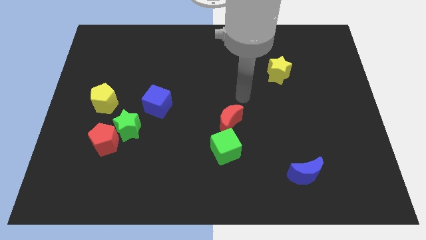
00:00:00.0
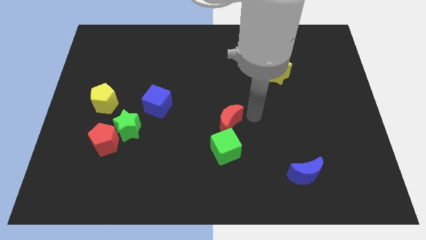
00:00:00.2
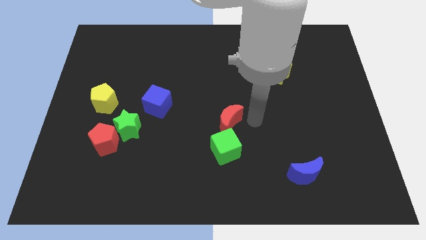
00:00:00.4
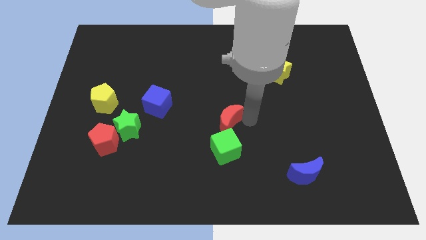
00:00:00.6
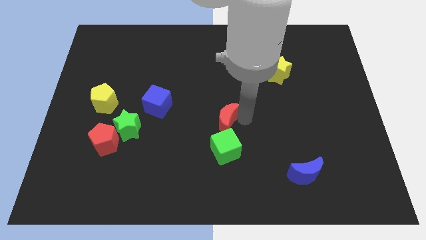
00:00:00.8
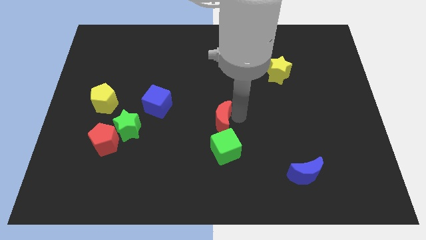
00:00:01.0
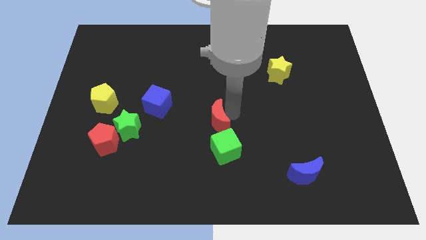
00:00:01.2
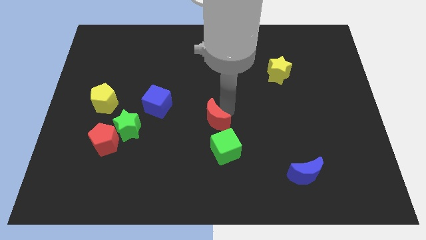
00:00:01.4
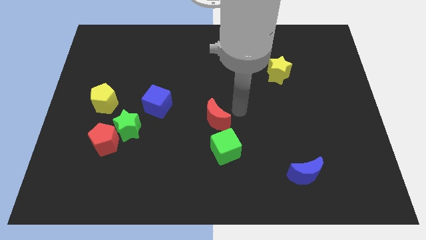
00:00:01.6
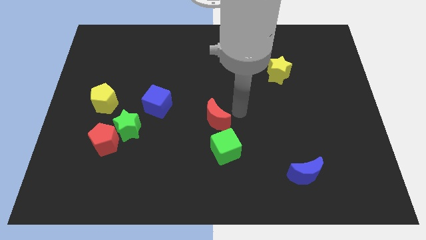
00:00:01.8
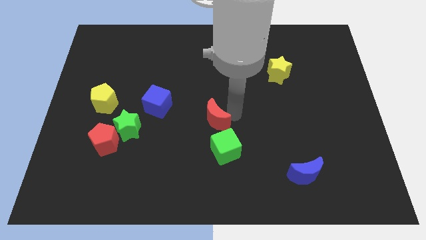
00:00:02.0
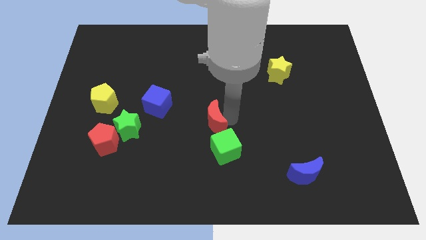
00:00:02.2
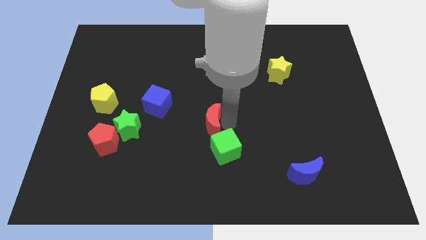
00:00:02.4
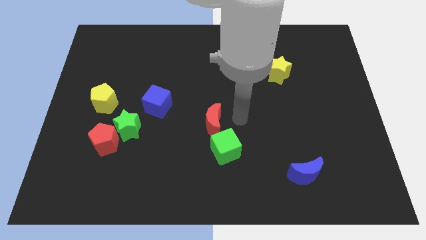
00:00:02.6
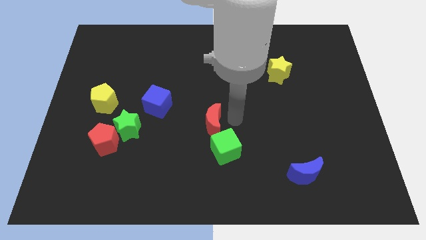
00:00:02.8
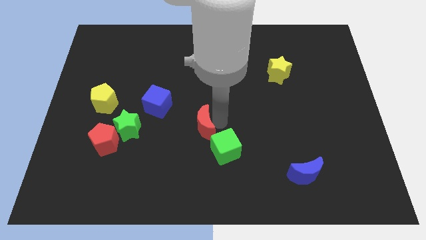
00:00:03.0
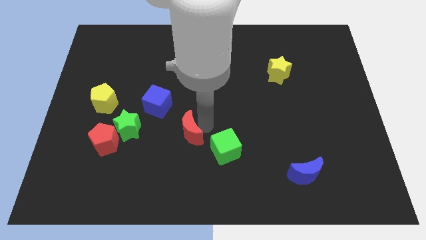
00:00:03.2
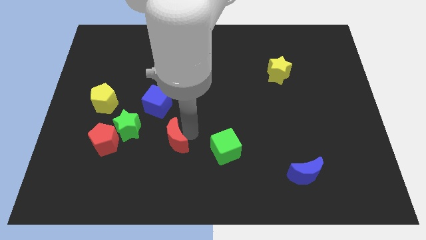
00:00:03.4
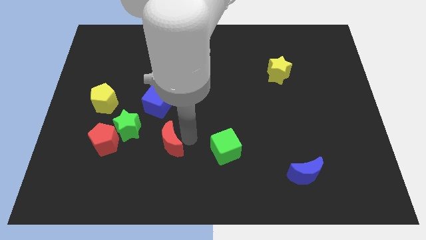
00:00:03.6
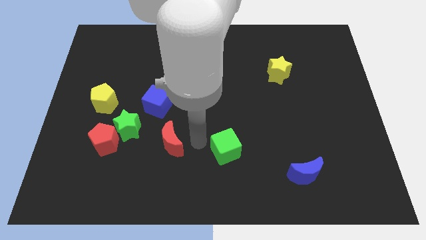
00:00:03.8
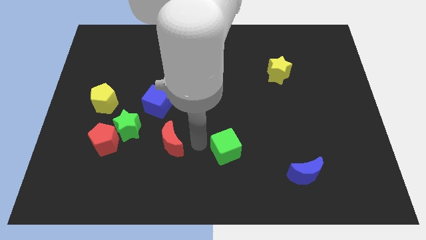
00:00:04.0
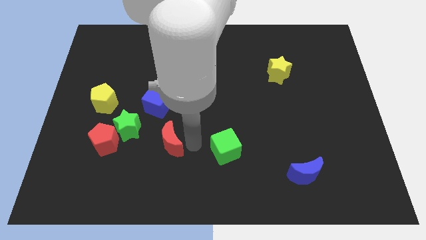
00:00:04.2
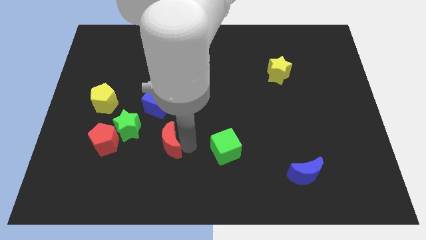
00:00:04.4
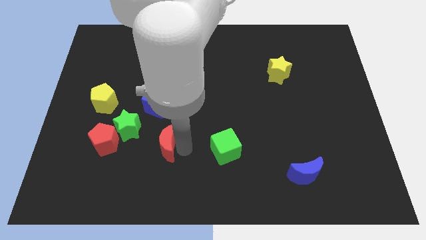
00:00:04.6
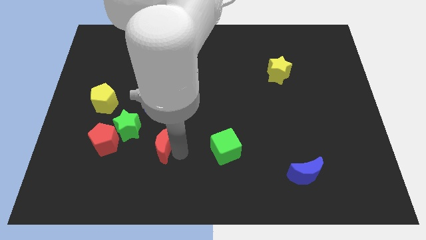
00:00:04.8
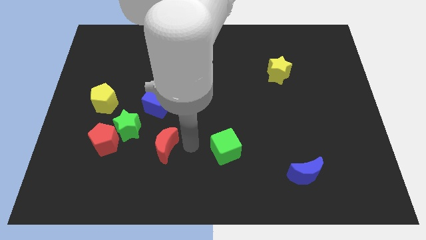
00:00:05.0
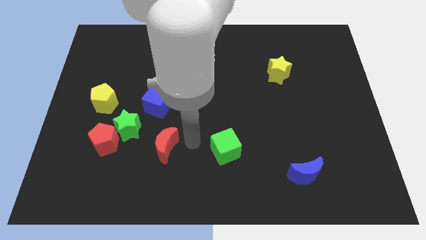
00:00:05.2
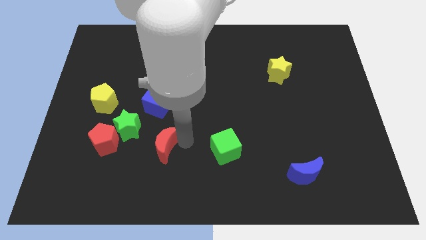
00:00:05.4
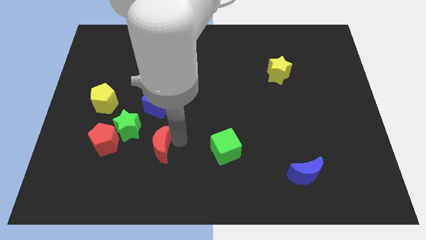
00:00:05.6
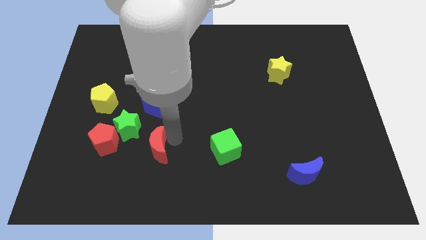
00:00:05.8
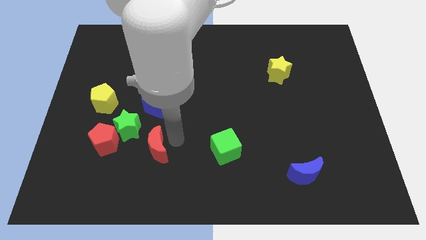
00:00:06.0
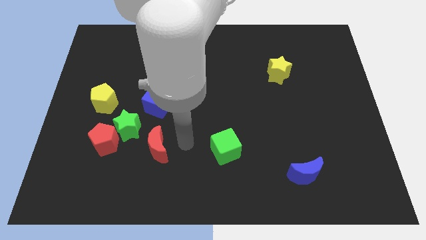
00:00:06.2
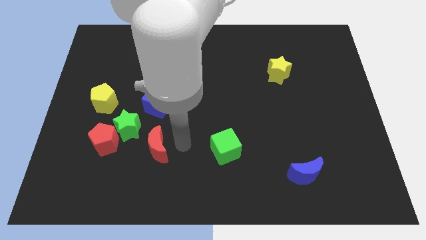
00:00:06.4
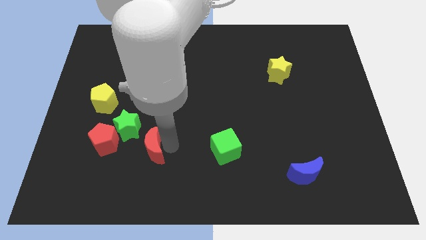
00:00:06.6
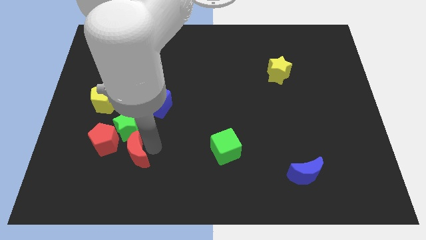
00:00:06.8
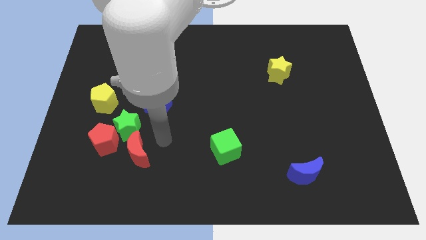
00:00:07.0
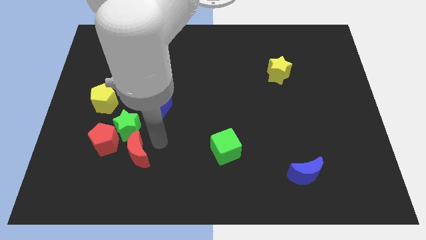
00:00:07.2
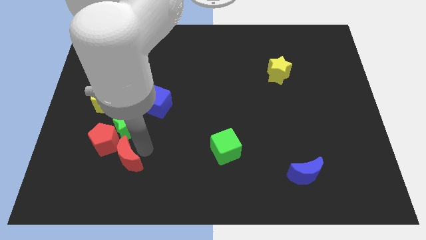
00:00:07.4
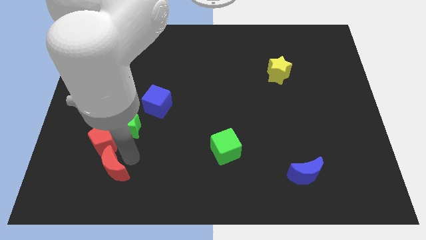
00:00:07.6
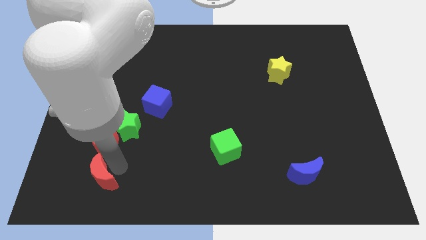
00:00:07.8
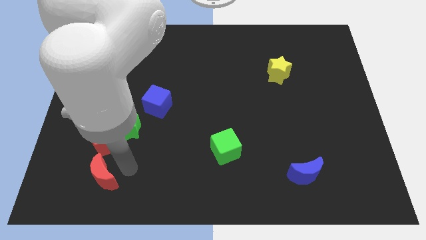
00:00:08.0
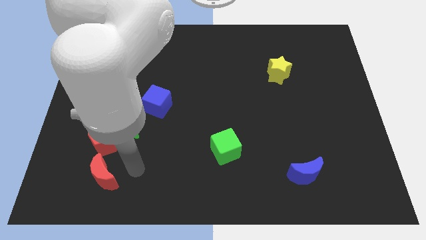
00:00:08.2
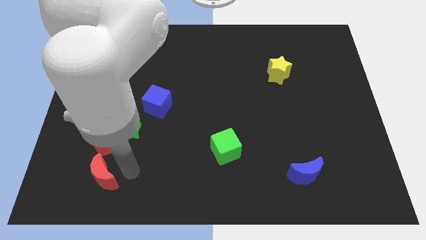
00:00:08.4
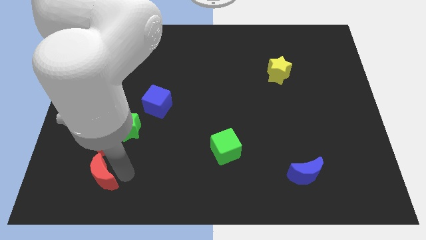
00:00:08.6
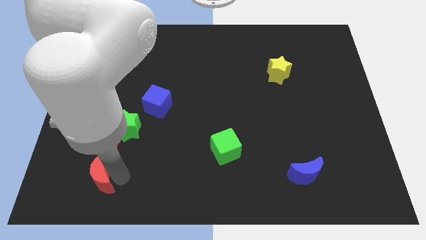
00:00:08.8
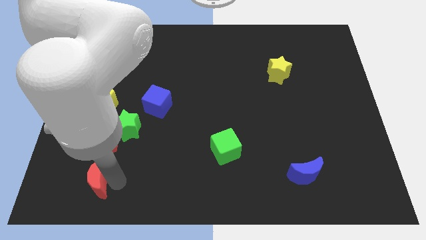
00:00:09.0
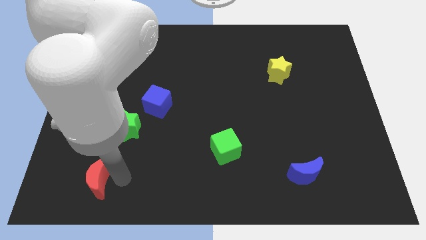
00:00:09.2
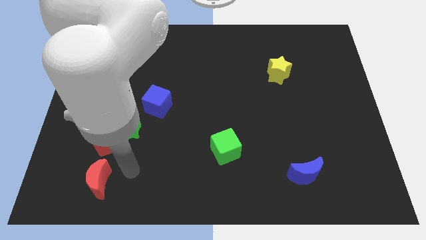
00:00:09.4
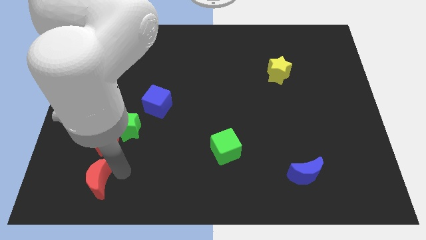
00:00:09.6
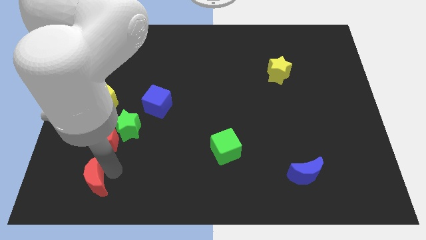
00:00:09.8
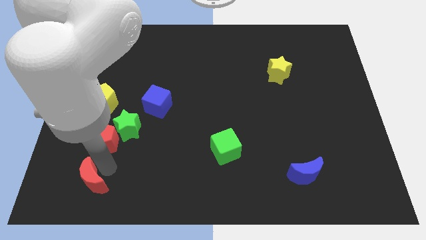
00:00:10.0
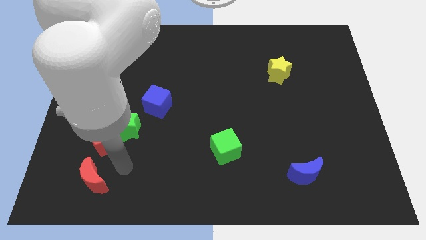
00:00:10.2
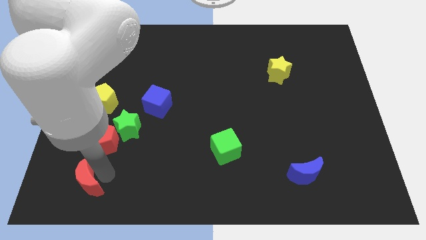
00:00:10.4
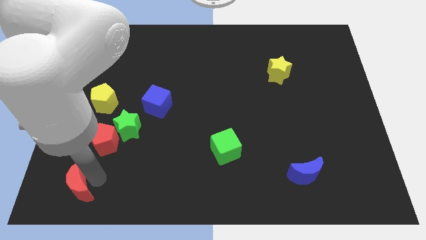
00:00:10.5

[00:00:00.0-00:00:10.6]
slide the red moon to the lower left corner
